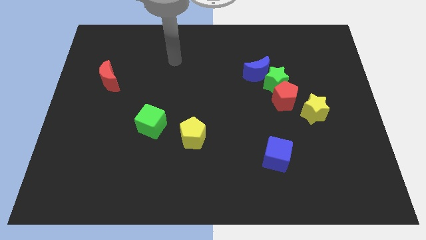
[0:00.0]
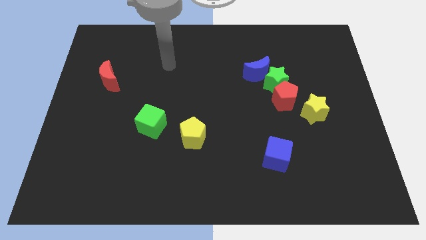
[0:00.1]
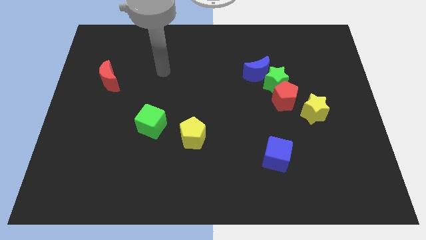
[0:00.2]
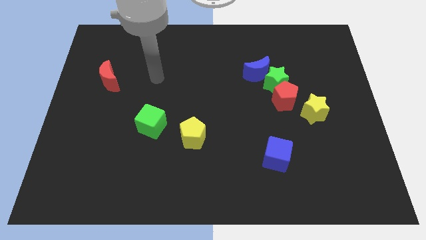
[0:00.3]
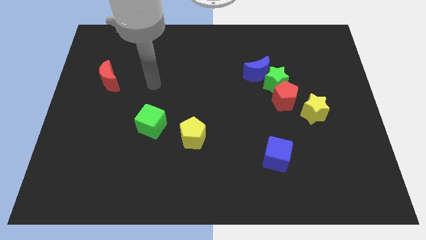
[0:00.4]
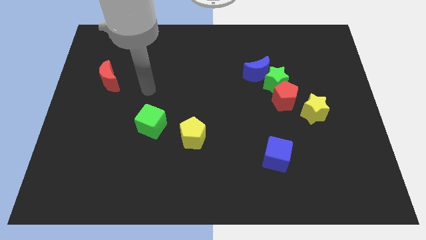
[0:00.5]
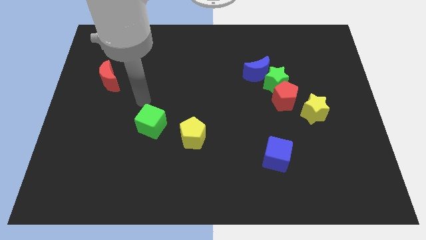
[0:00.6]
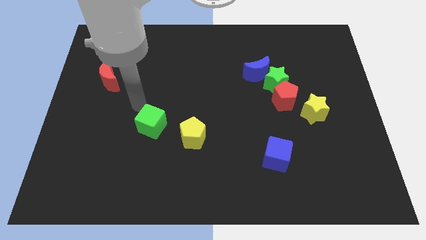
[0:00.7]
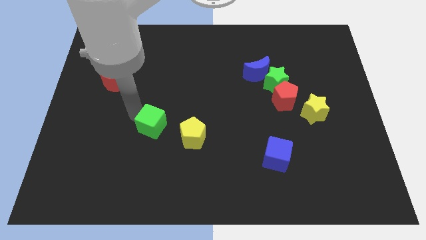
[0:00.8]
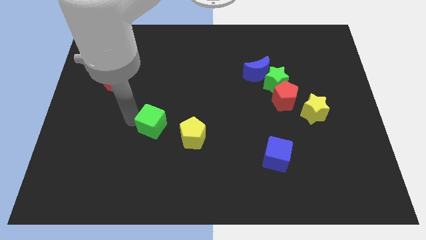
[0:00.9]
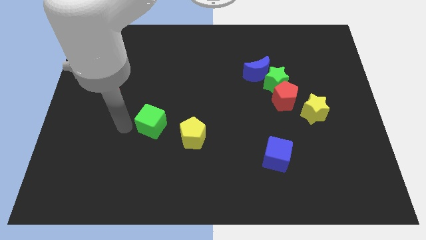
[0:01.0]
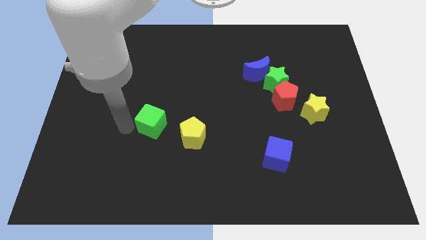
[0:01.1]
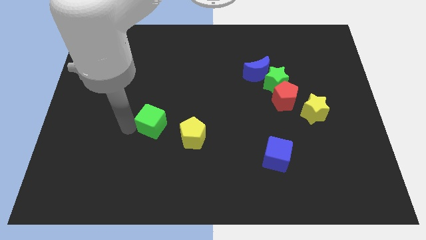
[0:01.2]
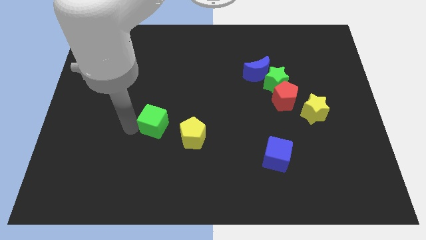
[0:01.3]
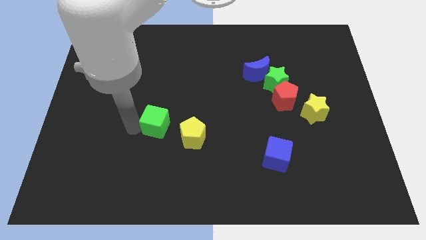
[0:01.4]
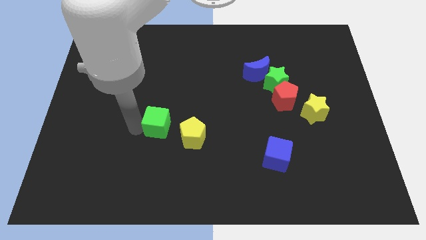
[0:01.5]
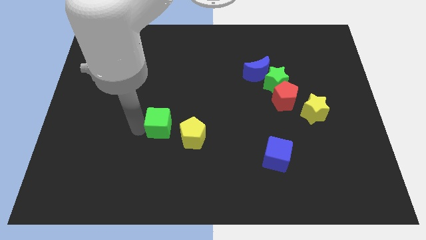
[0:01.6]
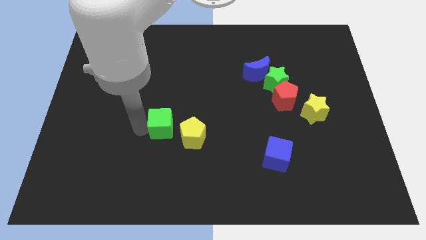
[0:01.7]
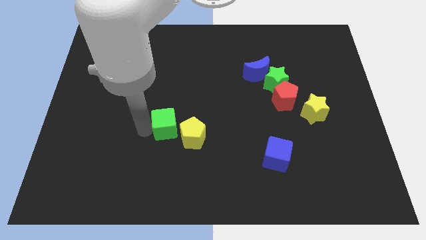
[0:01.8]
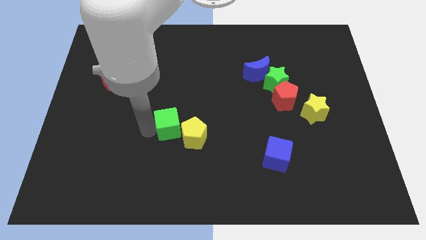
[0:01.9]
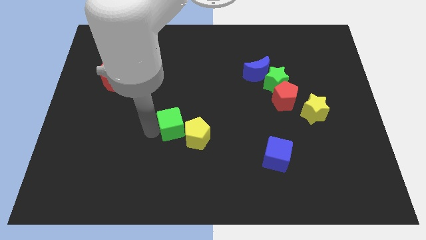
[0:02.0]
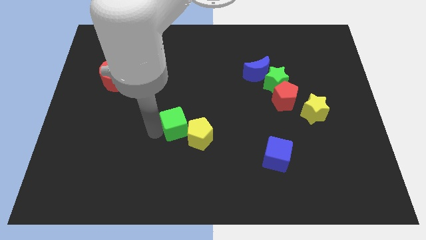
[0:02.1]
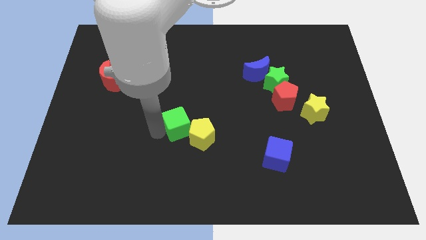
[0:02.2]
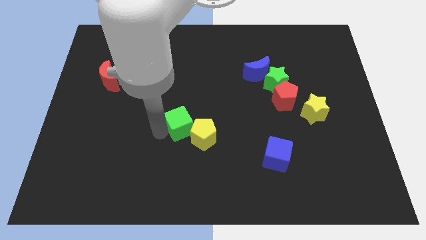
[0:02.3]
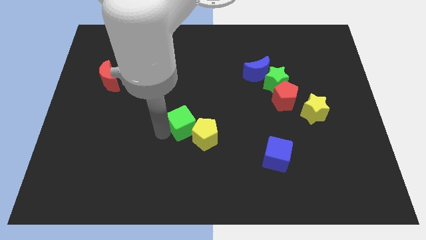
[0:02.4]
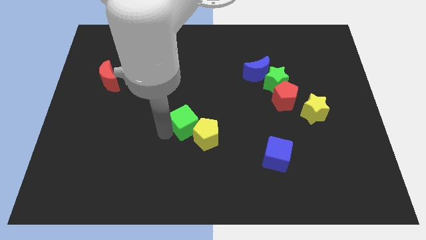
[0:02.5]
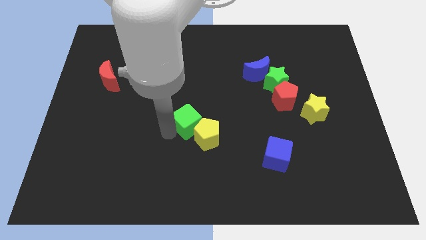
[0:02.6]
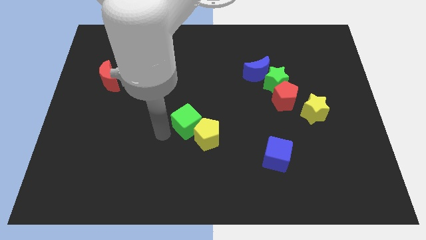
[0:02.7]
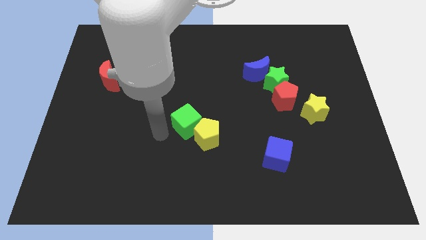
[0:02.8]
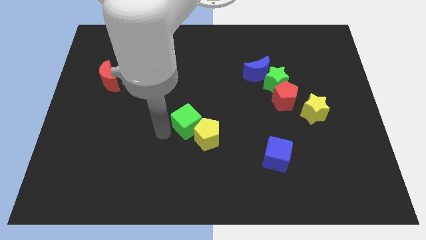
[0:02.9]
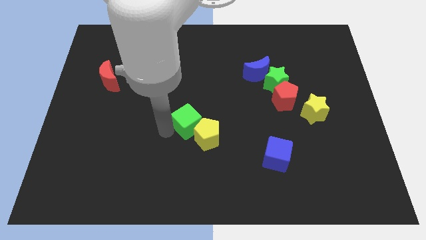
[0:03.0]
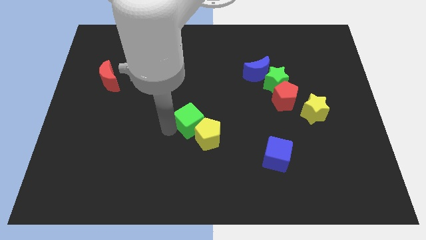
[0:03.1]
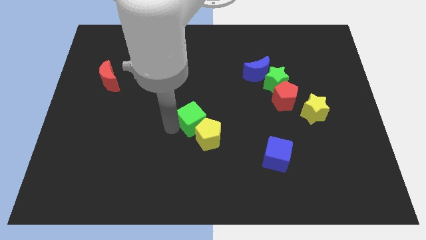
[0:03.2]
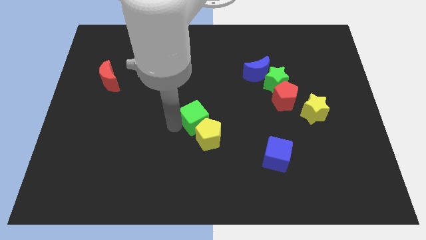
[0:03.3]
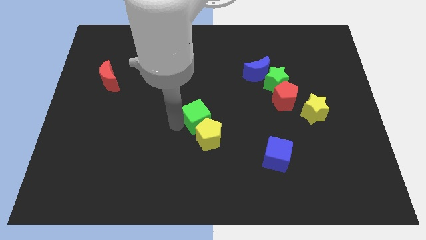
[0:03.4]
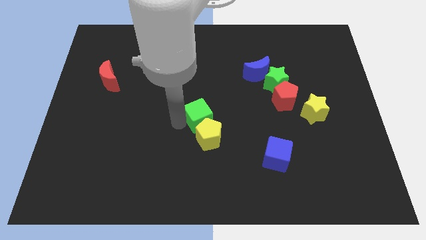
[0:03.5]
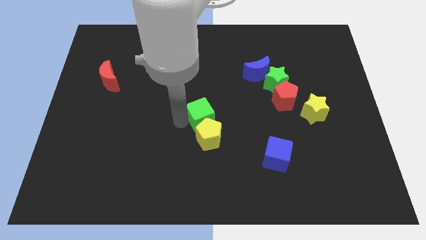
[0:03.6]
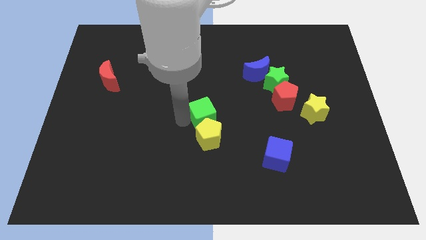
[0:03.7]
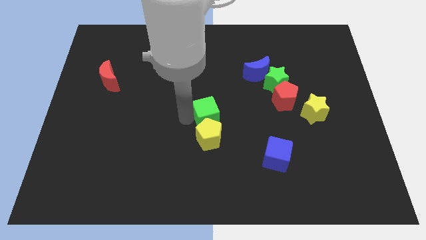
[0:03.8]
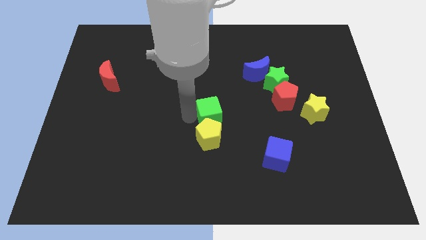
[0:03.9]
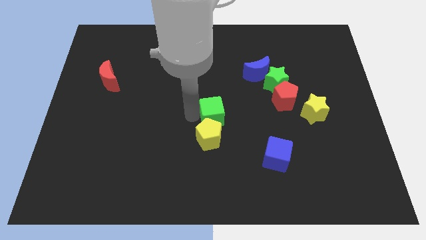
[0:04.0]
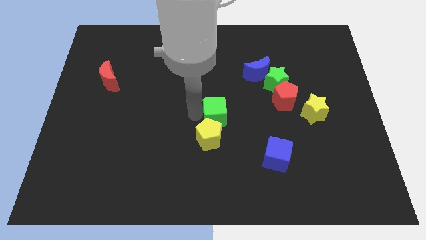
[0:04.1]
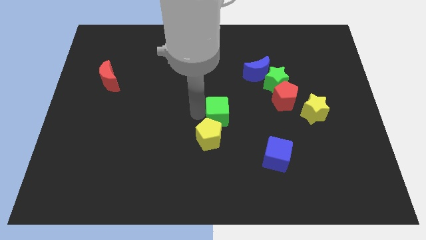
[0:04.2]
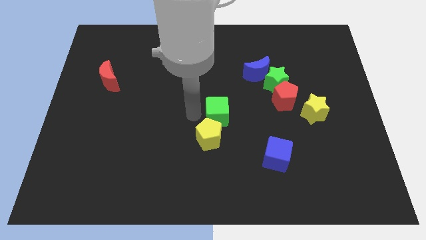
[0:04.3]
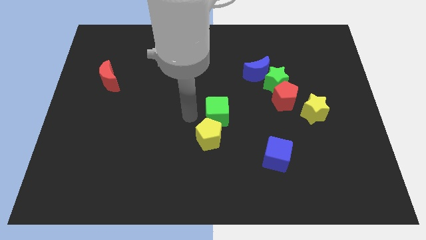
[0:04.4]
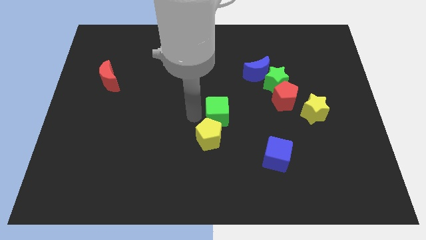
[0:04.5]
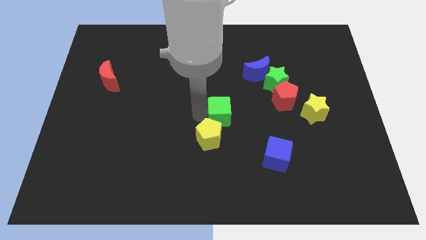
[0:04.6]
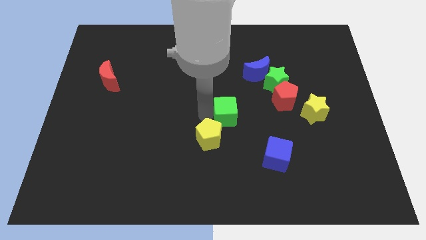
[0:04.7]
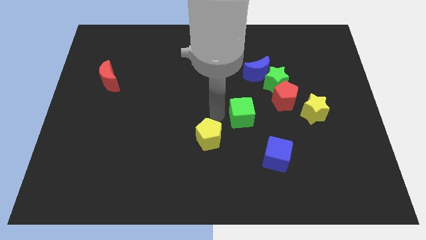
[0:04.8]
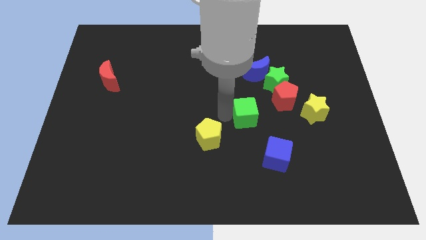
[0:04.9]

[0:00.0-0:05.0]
slide the green cube to the left side of the yellow star

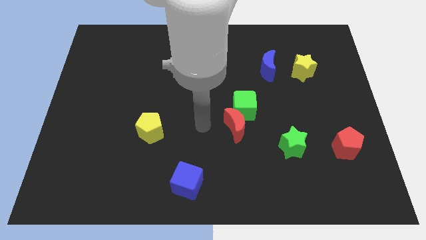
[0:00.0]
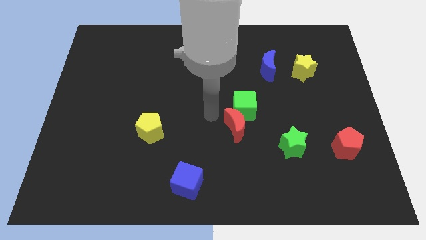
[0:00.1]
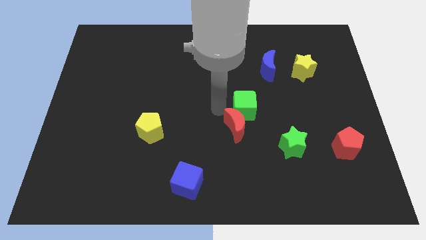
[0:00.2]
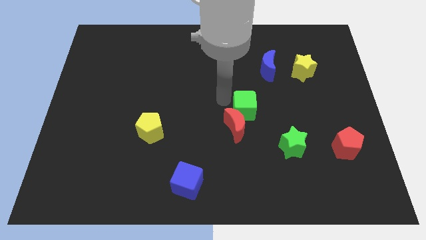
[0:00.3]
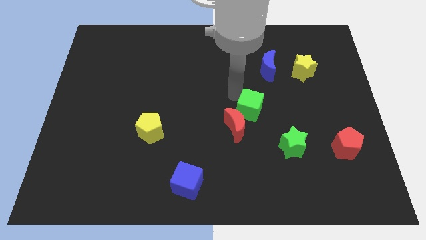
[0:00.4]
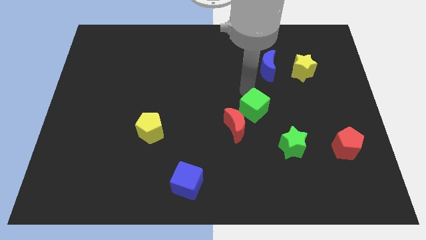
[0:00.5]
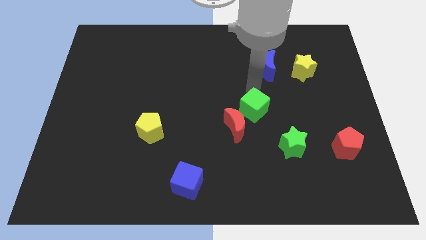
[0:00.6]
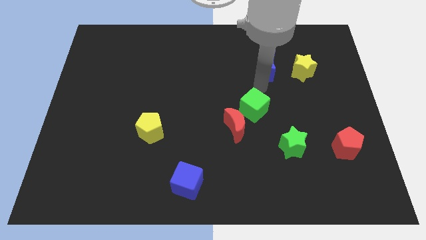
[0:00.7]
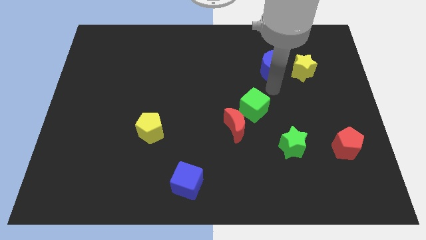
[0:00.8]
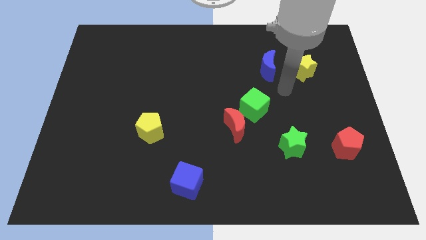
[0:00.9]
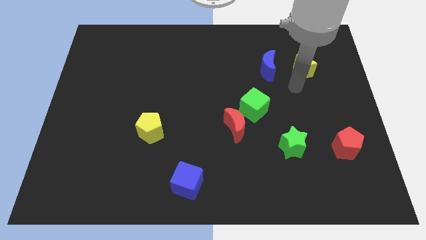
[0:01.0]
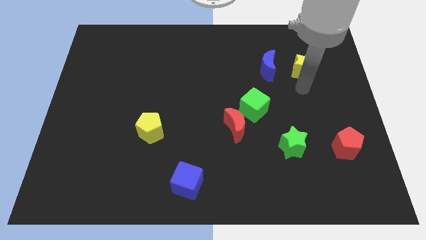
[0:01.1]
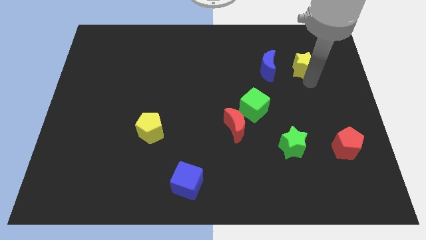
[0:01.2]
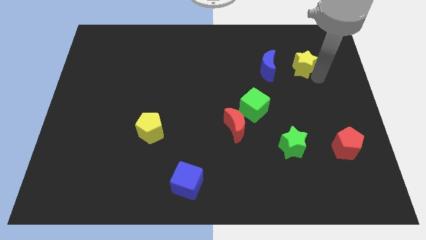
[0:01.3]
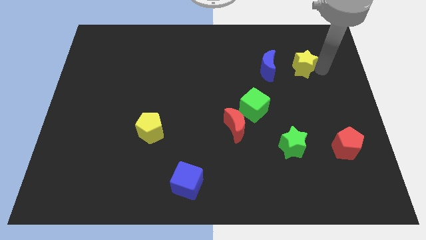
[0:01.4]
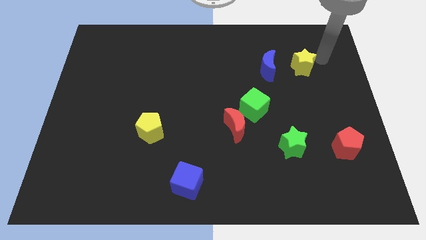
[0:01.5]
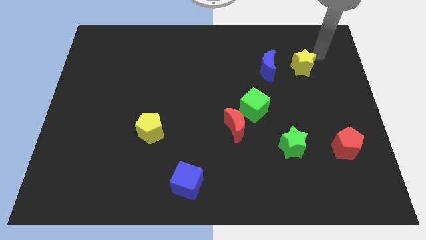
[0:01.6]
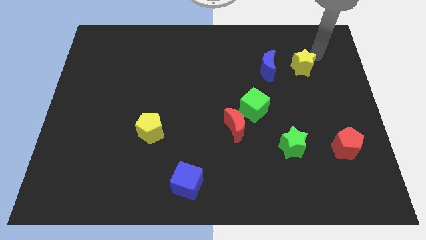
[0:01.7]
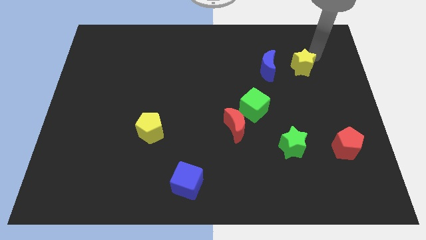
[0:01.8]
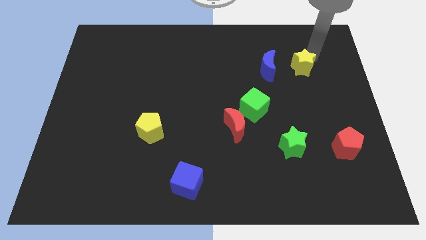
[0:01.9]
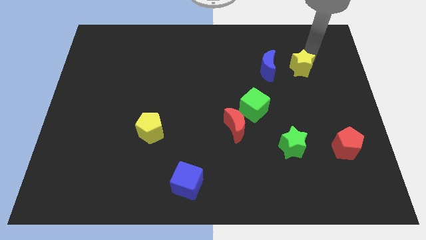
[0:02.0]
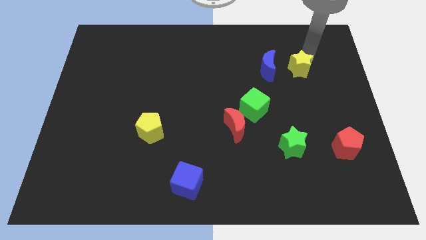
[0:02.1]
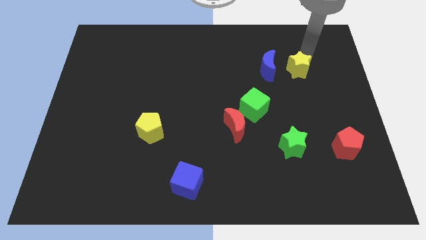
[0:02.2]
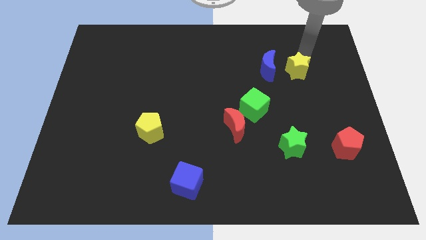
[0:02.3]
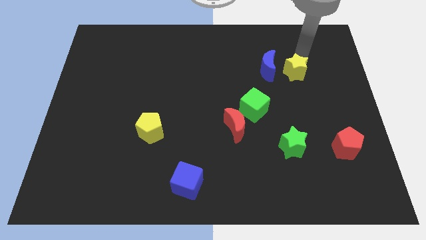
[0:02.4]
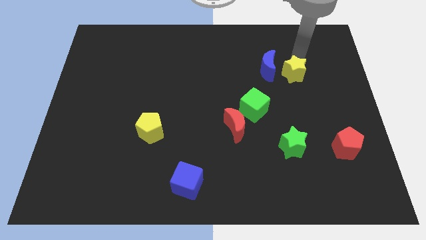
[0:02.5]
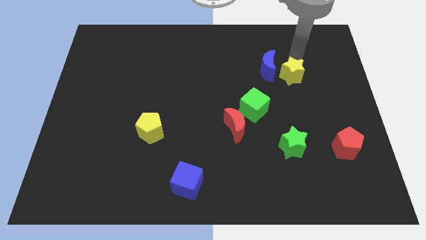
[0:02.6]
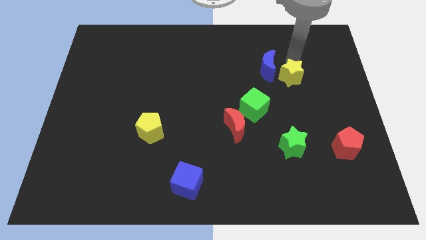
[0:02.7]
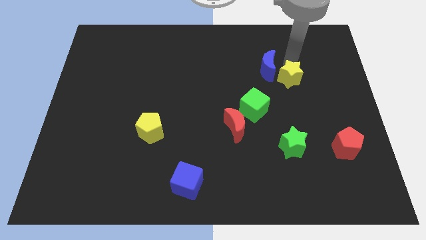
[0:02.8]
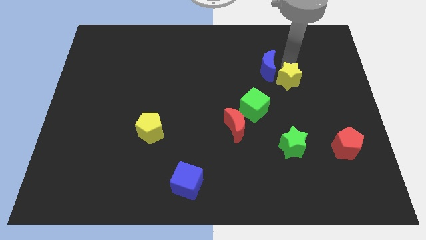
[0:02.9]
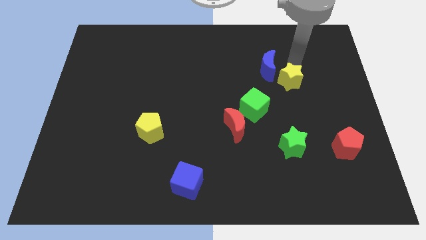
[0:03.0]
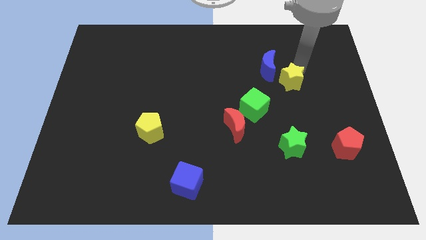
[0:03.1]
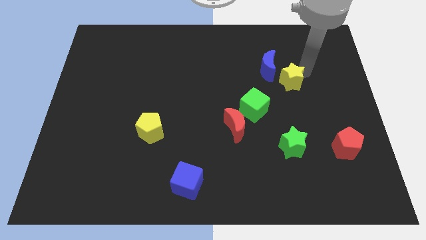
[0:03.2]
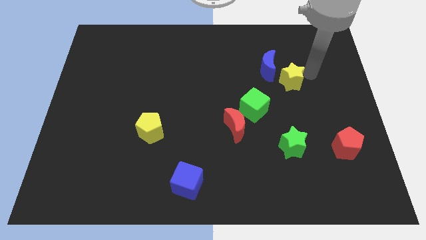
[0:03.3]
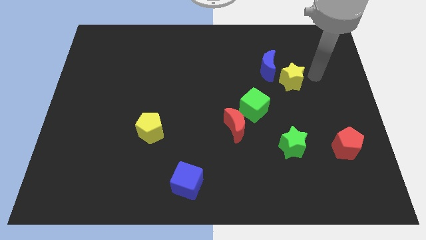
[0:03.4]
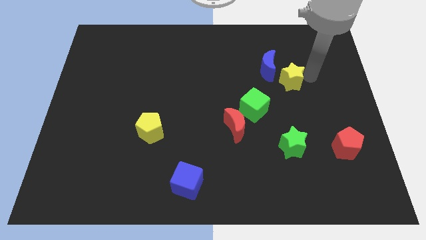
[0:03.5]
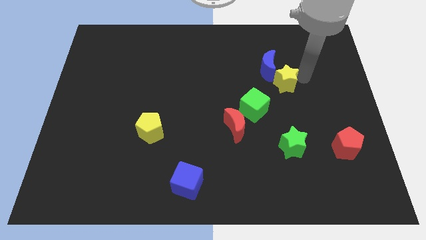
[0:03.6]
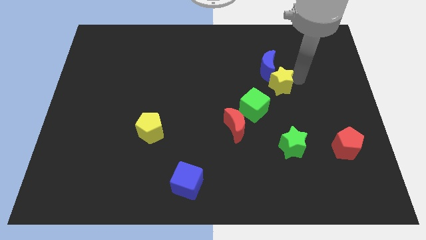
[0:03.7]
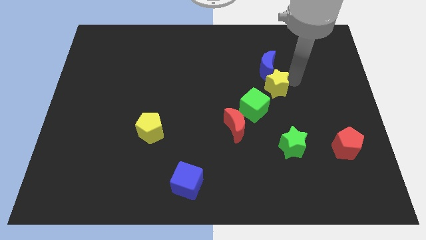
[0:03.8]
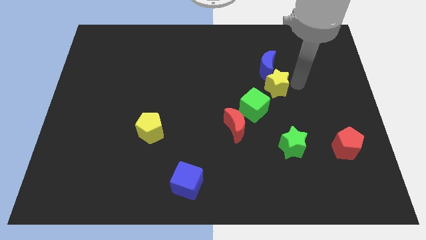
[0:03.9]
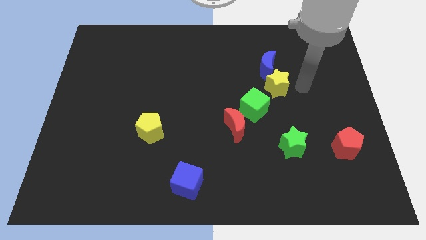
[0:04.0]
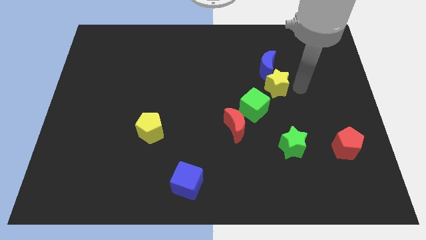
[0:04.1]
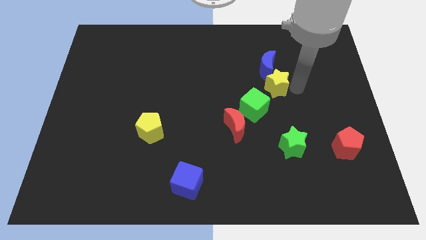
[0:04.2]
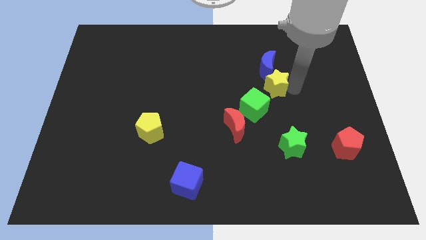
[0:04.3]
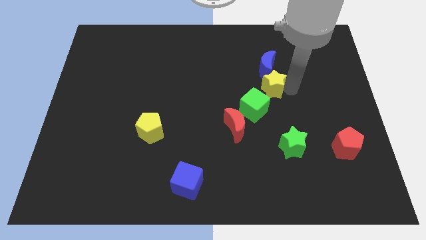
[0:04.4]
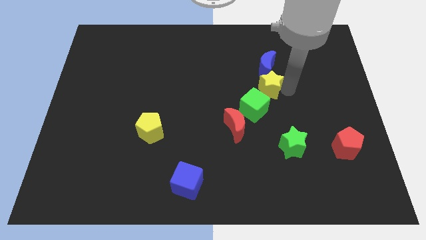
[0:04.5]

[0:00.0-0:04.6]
move the yellow star to the bottom left side of the blue moon
